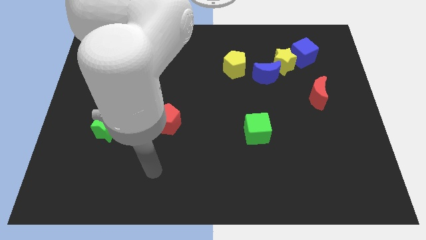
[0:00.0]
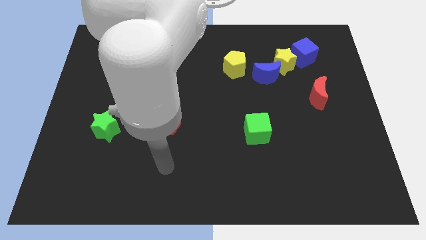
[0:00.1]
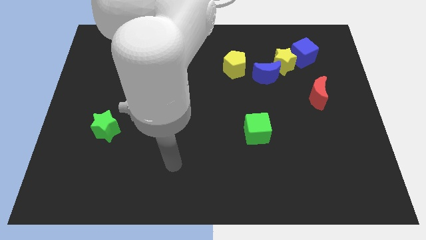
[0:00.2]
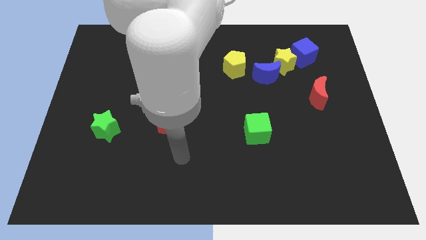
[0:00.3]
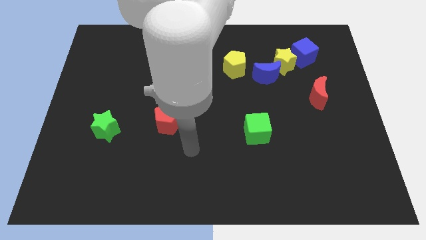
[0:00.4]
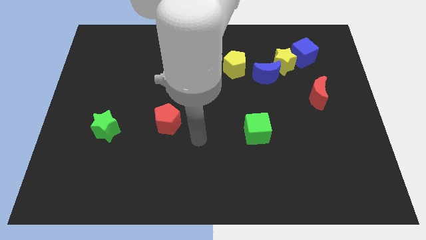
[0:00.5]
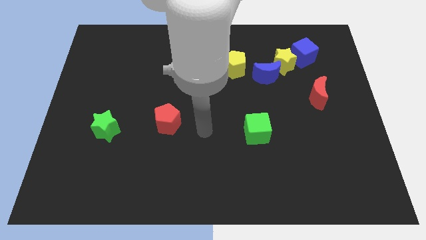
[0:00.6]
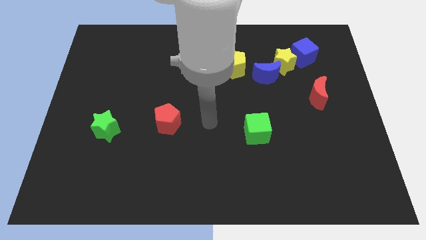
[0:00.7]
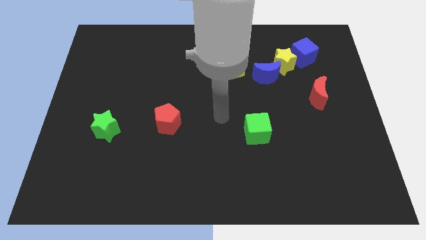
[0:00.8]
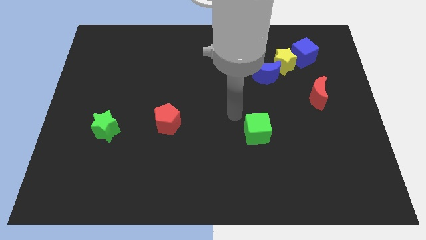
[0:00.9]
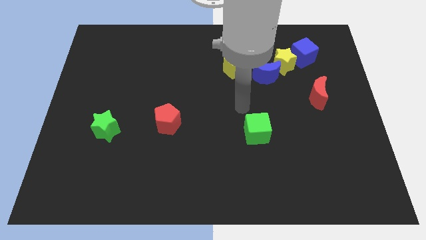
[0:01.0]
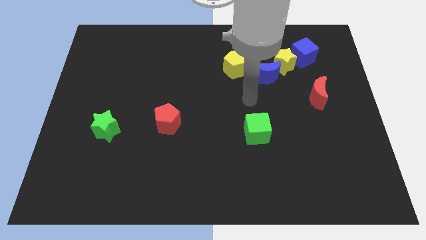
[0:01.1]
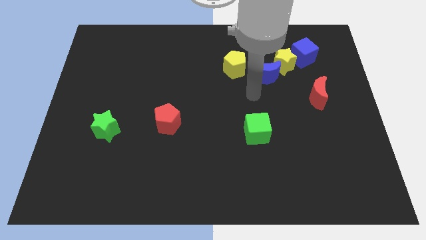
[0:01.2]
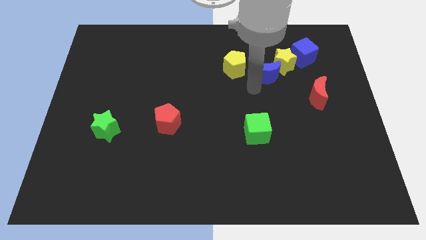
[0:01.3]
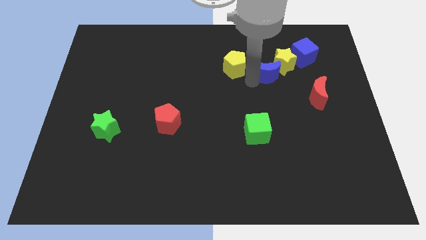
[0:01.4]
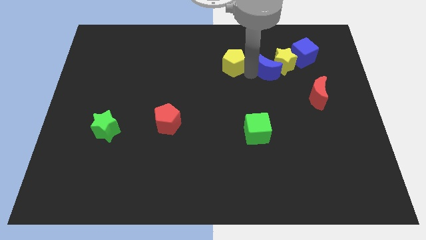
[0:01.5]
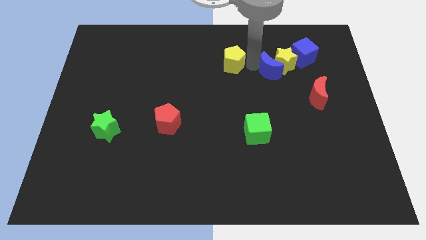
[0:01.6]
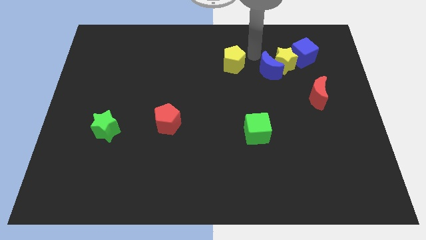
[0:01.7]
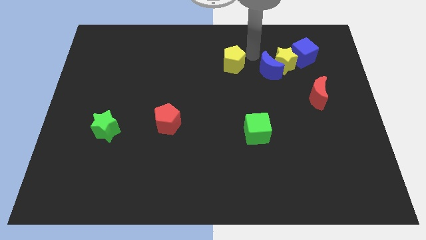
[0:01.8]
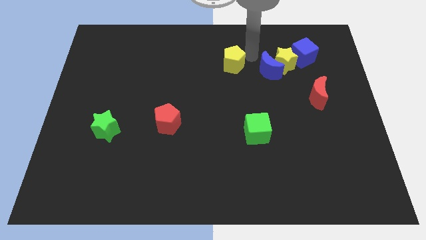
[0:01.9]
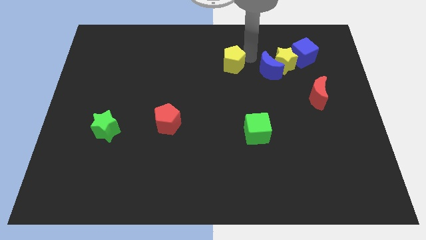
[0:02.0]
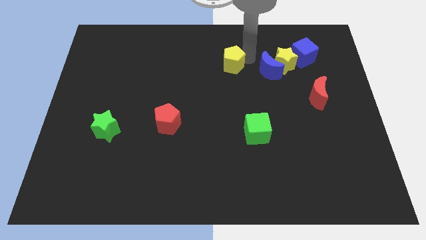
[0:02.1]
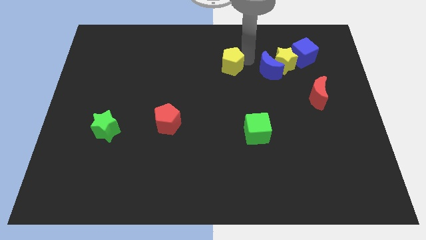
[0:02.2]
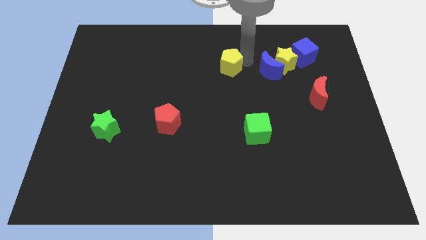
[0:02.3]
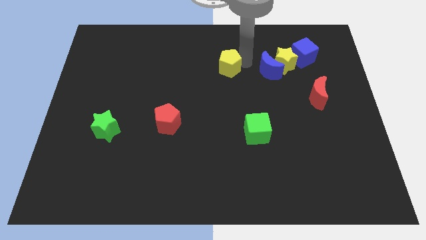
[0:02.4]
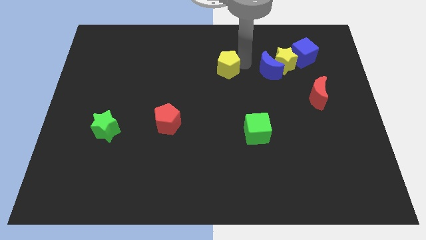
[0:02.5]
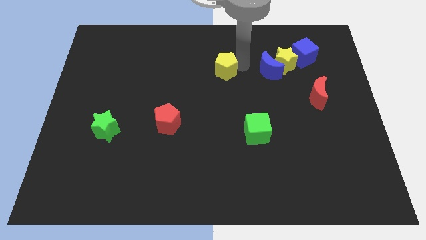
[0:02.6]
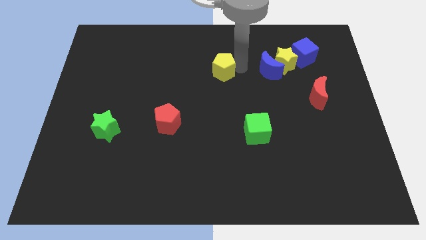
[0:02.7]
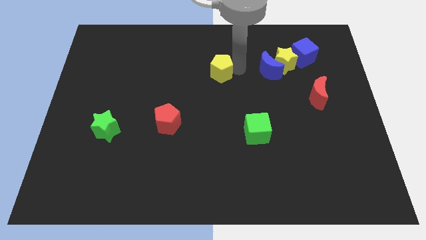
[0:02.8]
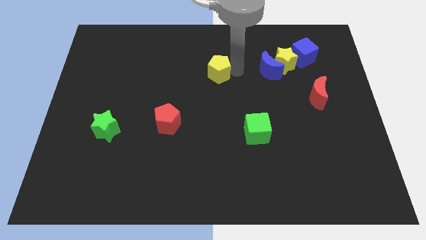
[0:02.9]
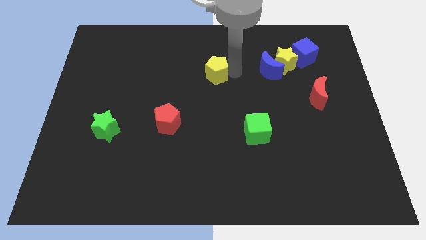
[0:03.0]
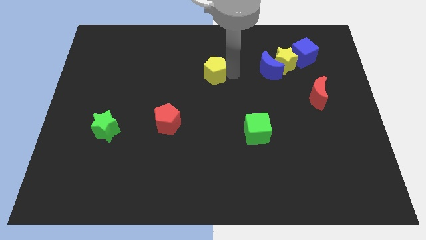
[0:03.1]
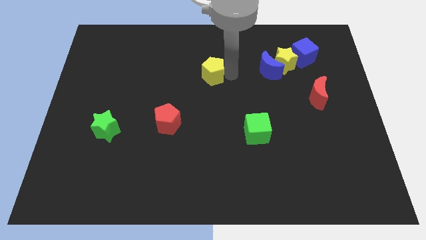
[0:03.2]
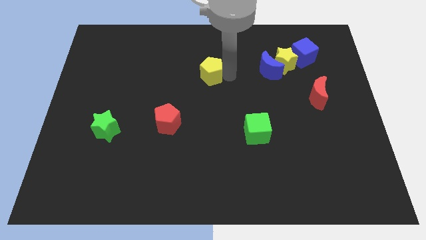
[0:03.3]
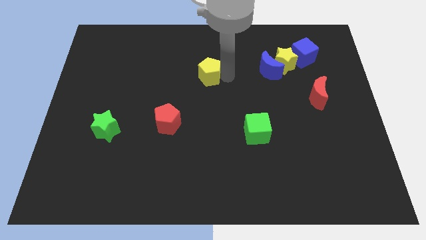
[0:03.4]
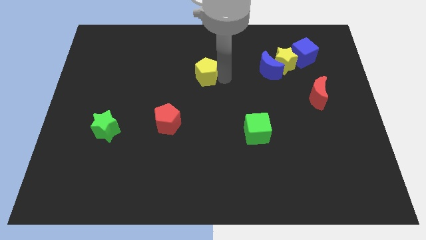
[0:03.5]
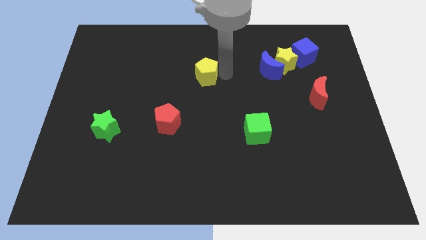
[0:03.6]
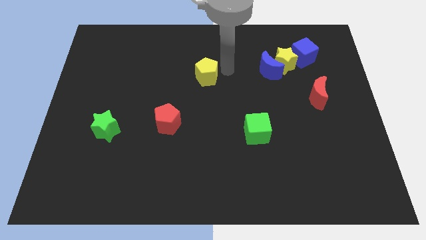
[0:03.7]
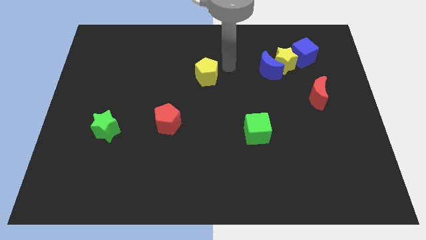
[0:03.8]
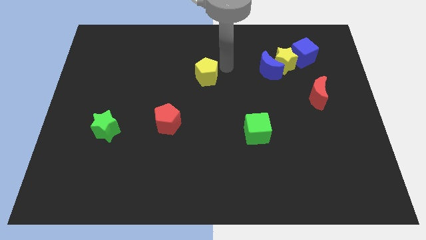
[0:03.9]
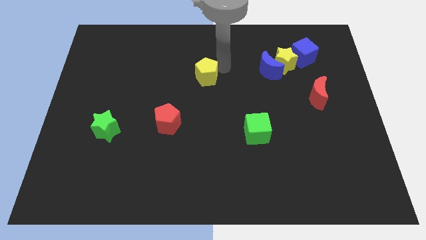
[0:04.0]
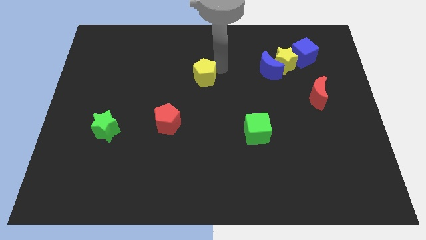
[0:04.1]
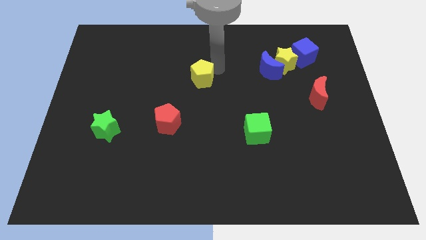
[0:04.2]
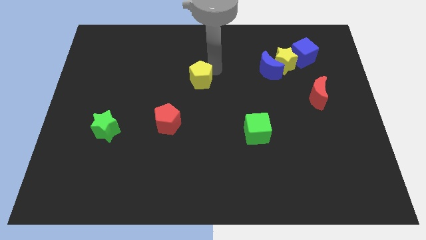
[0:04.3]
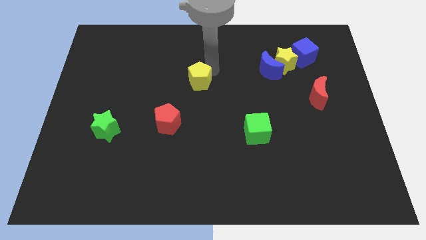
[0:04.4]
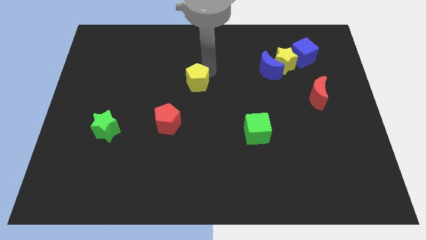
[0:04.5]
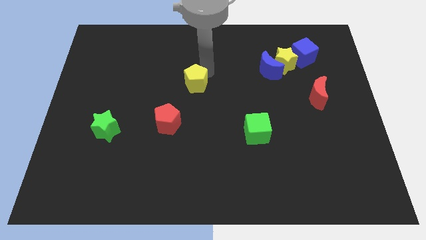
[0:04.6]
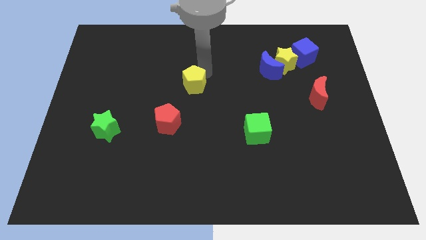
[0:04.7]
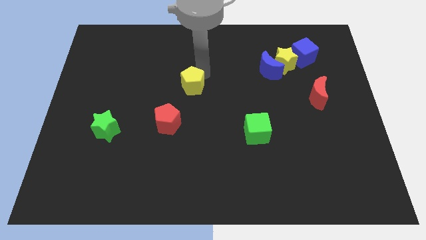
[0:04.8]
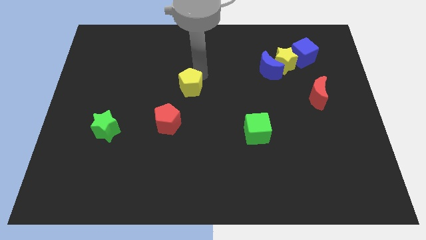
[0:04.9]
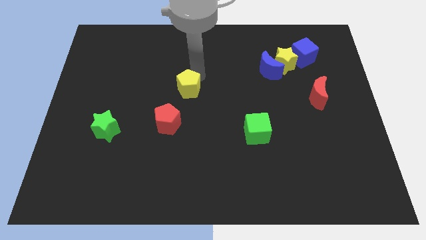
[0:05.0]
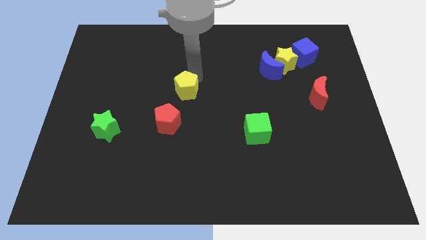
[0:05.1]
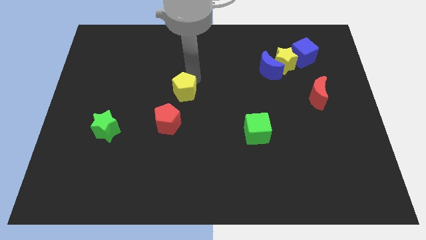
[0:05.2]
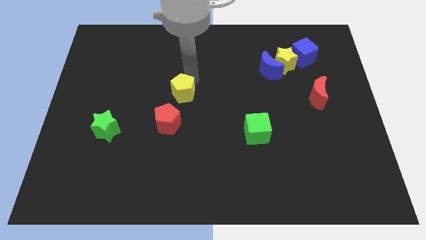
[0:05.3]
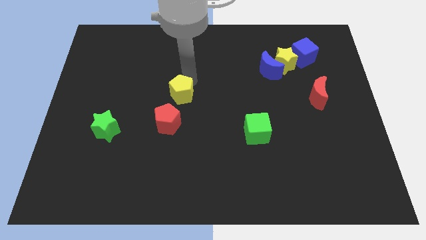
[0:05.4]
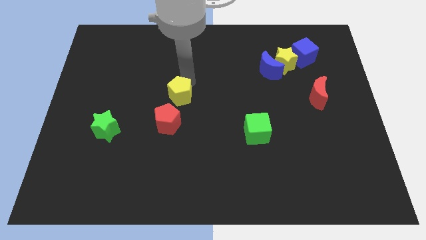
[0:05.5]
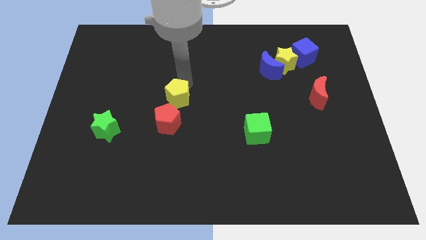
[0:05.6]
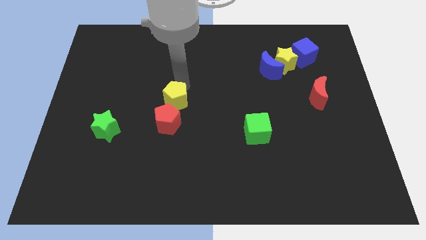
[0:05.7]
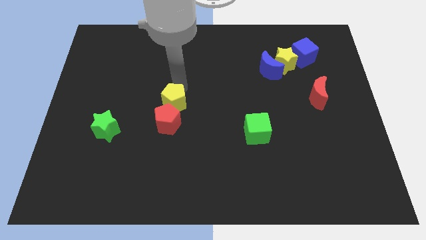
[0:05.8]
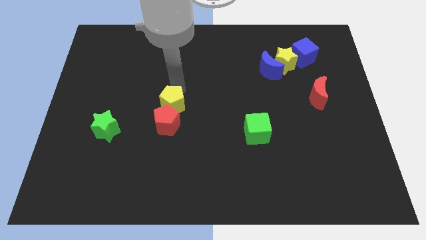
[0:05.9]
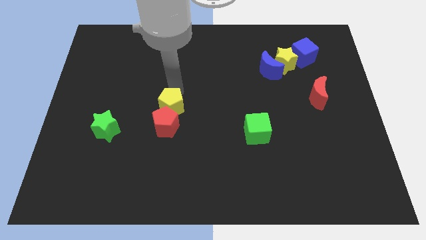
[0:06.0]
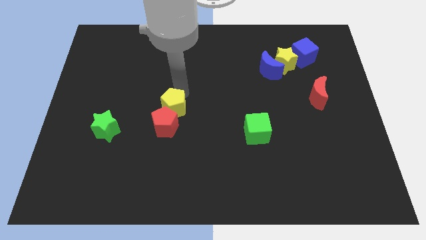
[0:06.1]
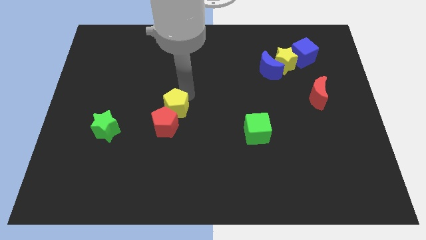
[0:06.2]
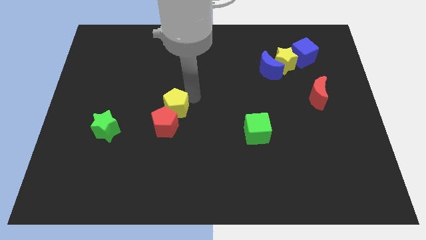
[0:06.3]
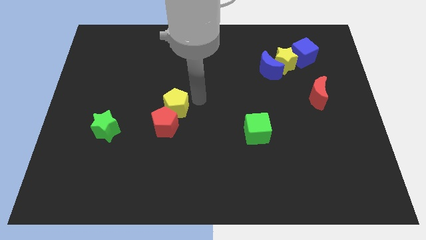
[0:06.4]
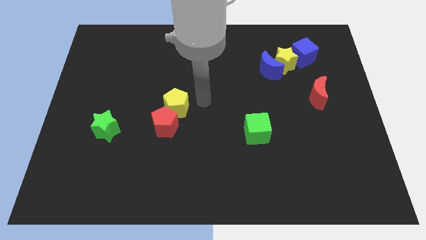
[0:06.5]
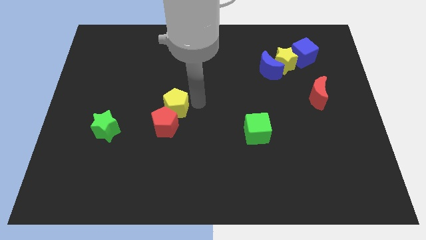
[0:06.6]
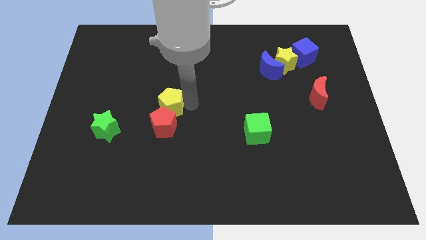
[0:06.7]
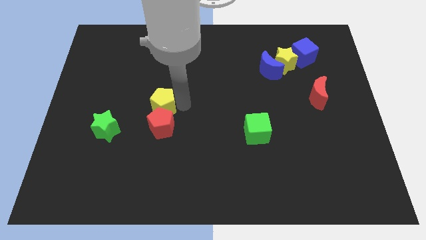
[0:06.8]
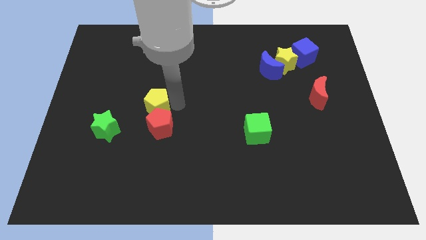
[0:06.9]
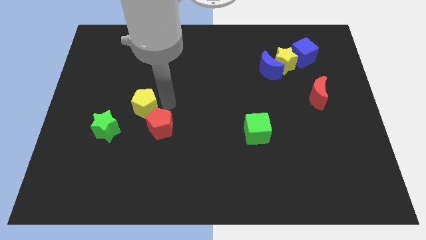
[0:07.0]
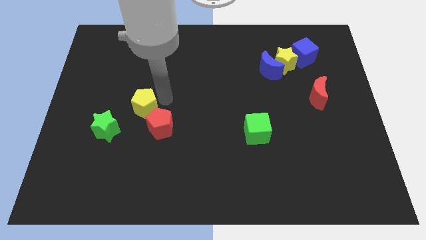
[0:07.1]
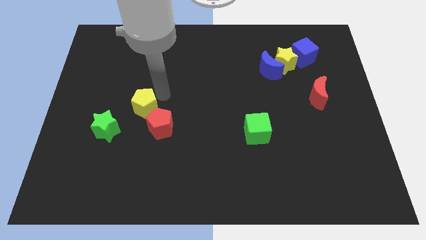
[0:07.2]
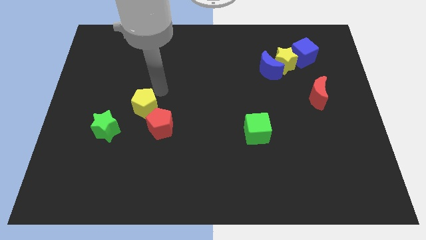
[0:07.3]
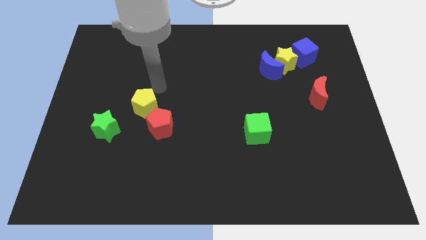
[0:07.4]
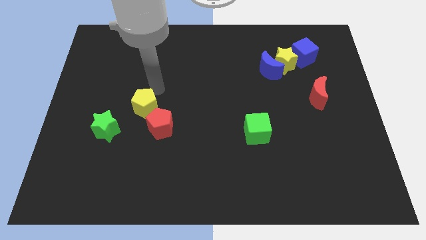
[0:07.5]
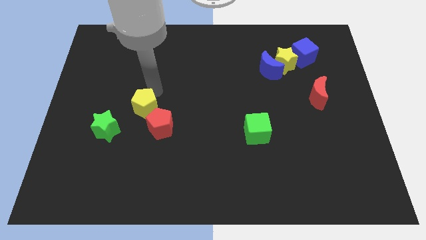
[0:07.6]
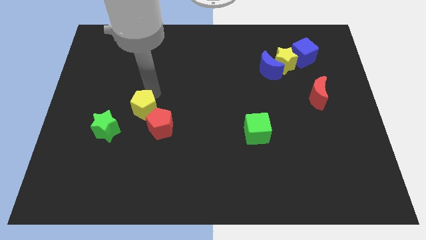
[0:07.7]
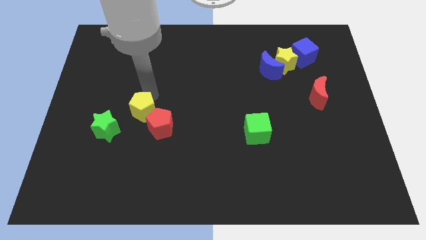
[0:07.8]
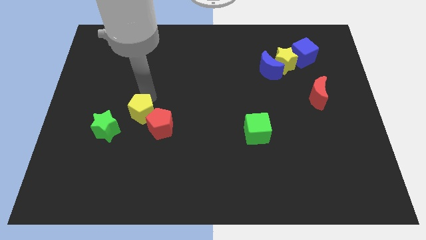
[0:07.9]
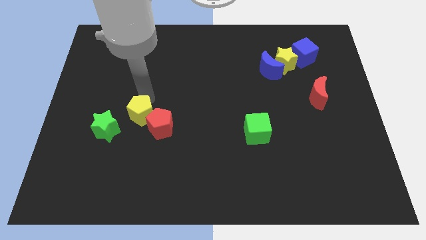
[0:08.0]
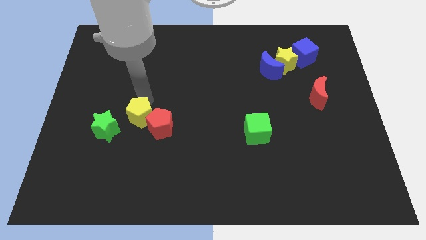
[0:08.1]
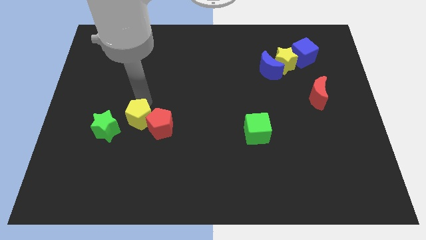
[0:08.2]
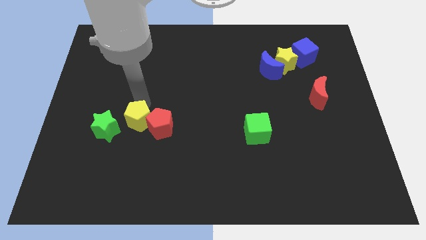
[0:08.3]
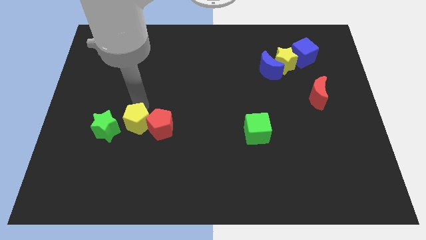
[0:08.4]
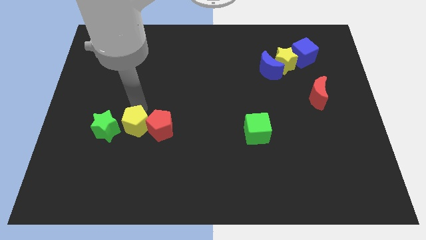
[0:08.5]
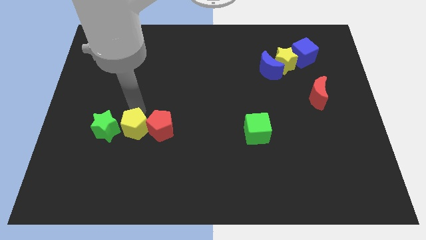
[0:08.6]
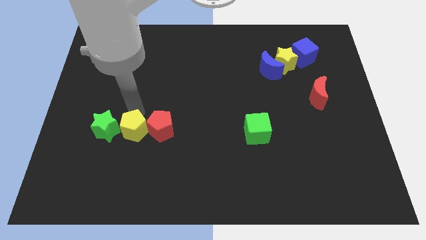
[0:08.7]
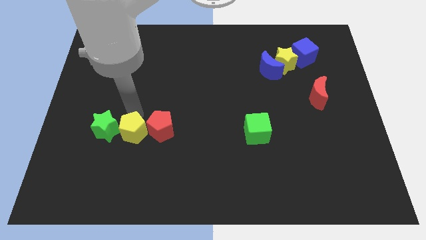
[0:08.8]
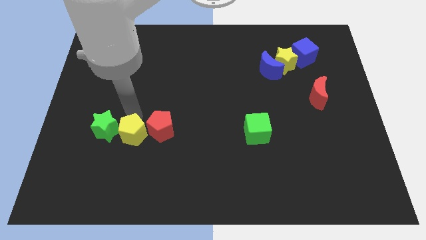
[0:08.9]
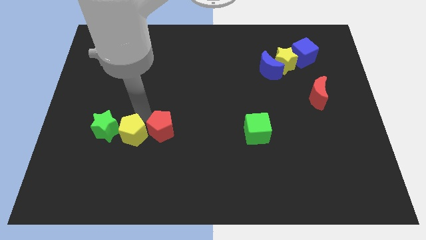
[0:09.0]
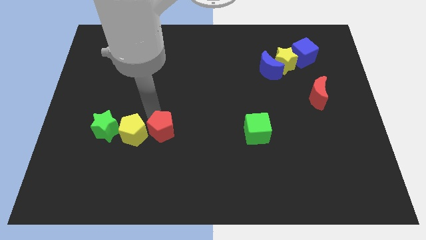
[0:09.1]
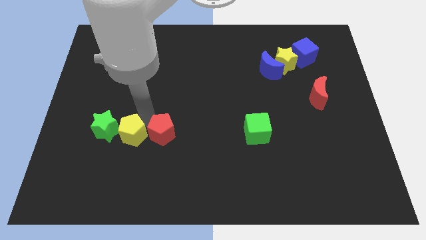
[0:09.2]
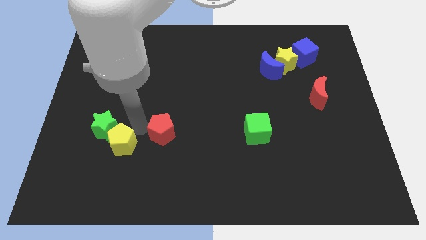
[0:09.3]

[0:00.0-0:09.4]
push the yellow pentagon below the green star
